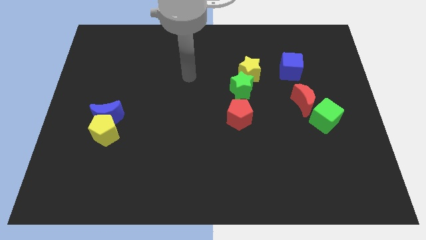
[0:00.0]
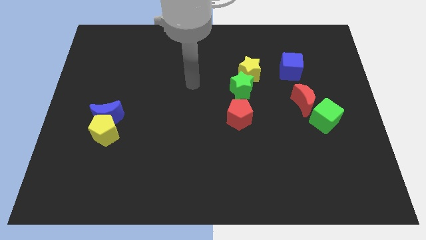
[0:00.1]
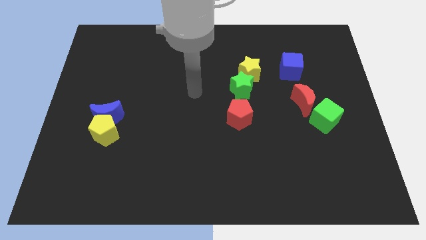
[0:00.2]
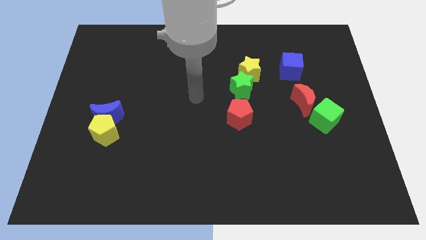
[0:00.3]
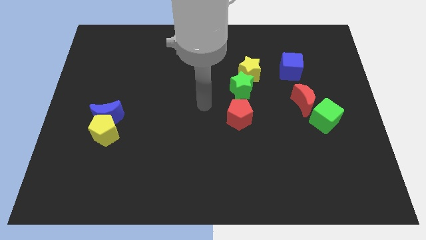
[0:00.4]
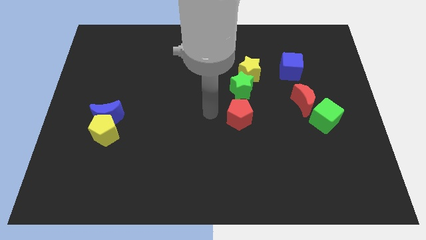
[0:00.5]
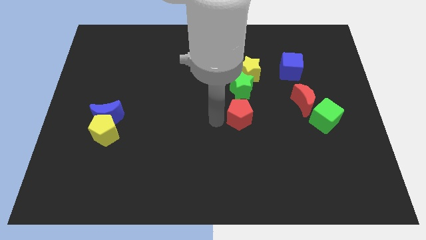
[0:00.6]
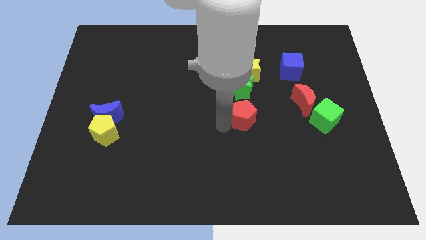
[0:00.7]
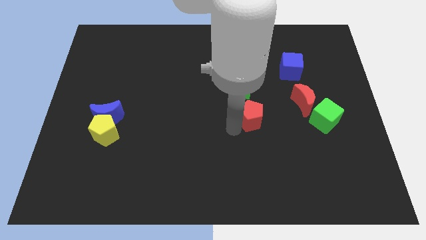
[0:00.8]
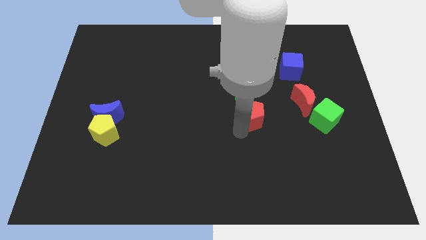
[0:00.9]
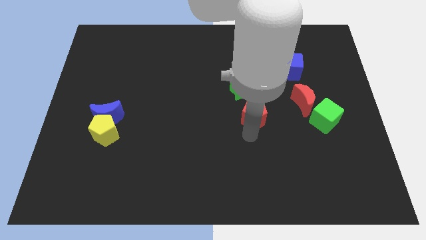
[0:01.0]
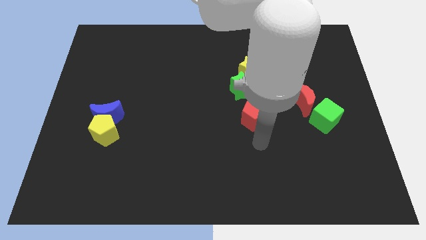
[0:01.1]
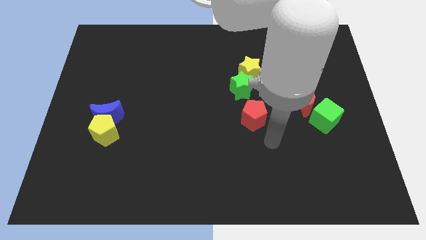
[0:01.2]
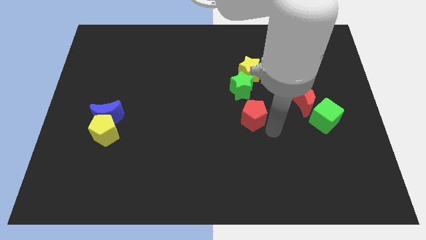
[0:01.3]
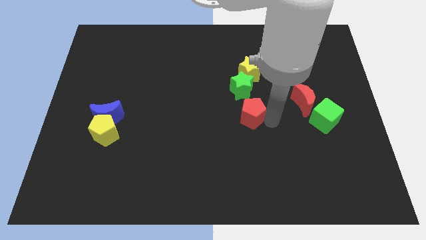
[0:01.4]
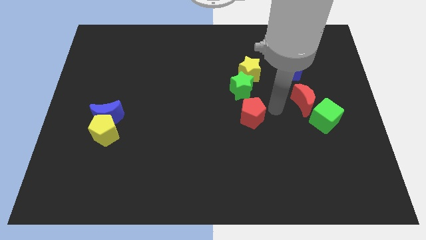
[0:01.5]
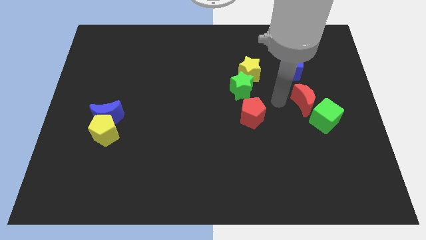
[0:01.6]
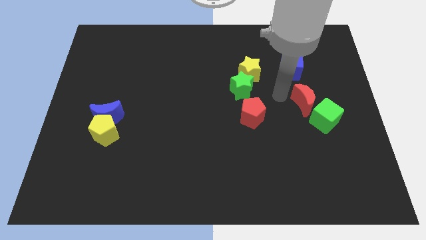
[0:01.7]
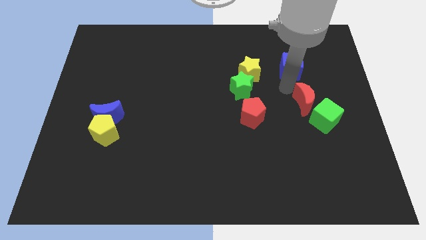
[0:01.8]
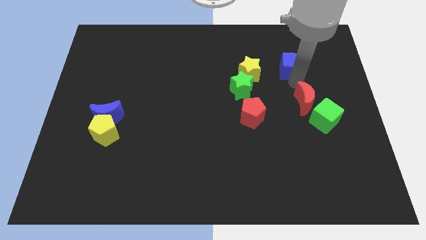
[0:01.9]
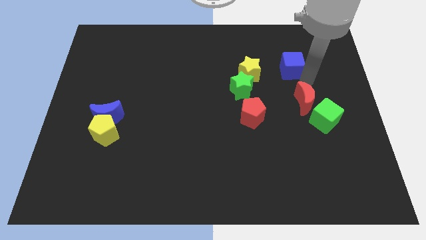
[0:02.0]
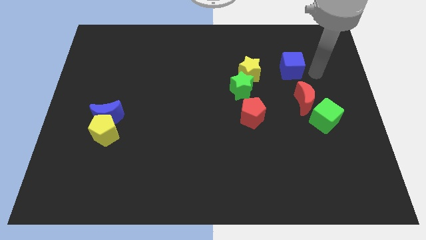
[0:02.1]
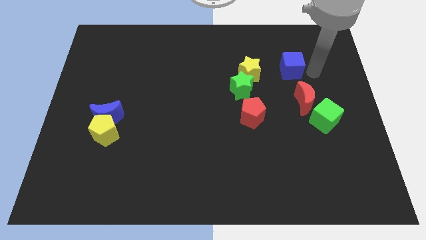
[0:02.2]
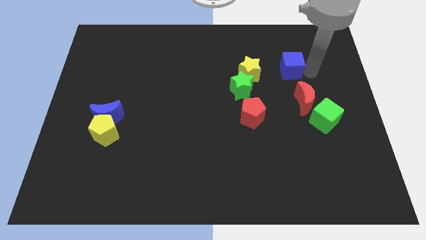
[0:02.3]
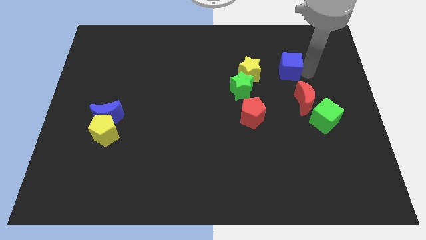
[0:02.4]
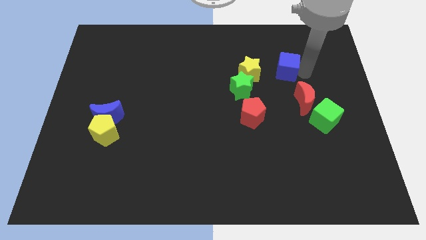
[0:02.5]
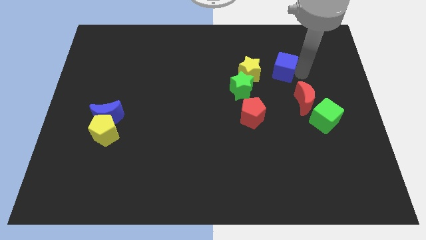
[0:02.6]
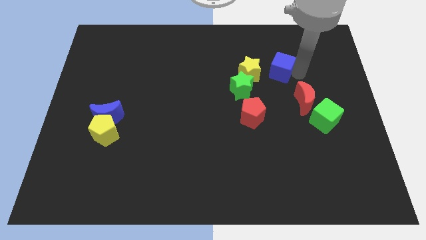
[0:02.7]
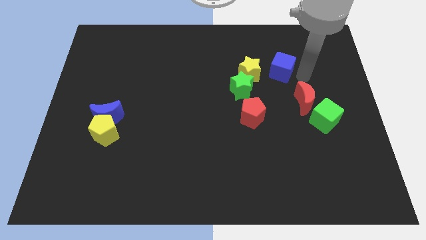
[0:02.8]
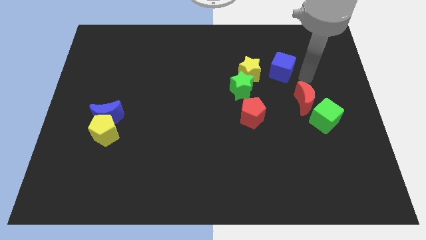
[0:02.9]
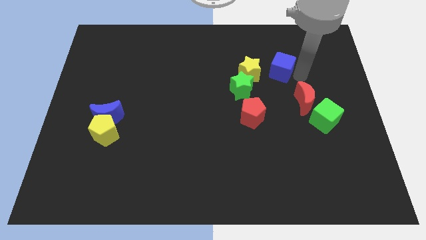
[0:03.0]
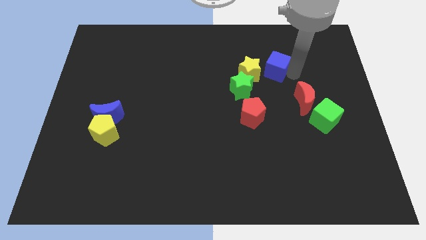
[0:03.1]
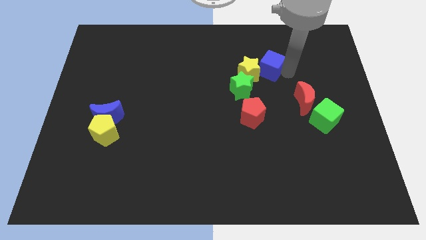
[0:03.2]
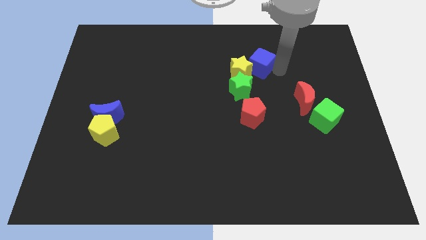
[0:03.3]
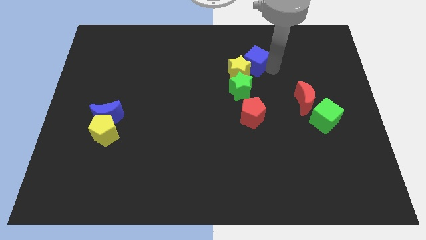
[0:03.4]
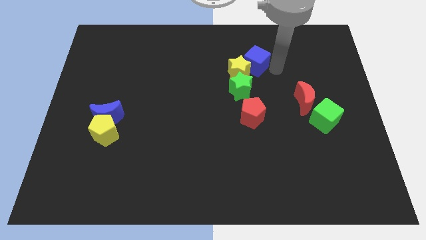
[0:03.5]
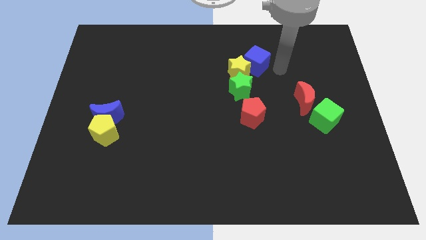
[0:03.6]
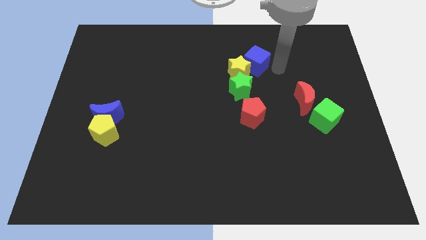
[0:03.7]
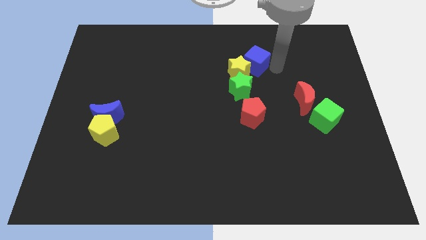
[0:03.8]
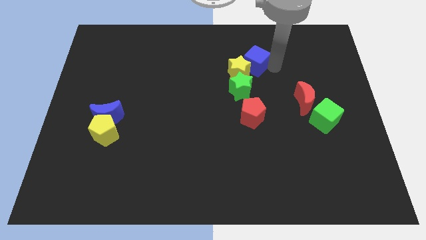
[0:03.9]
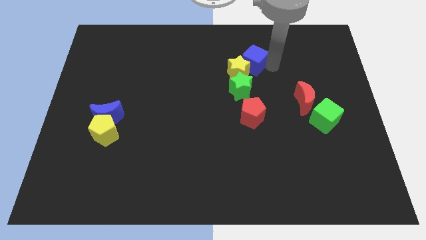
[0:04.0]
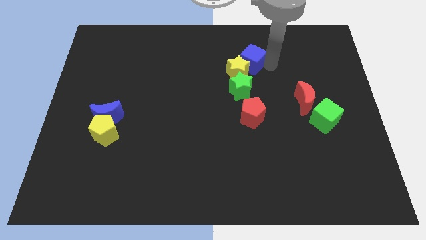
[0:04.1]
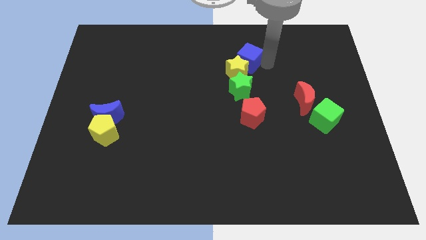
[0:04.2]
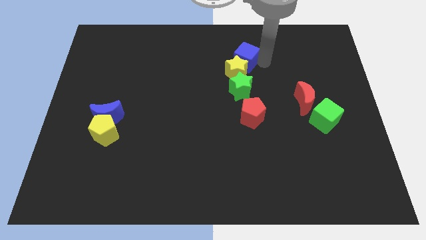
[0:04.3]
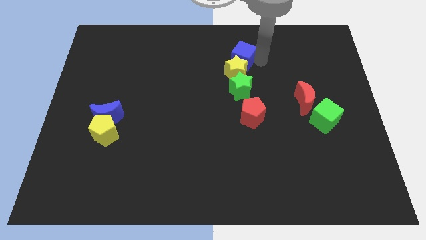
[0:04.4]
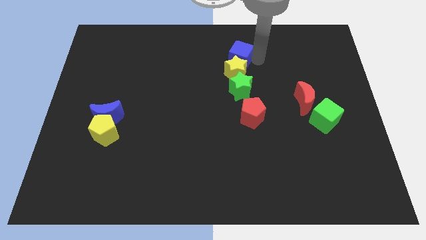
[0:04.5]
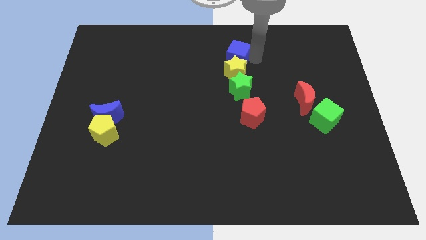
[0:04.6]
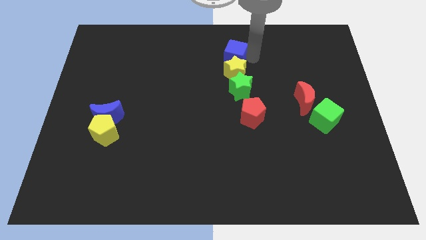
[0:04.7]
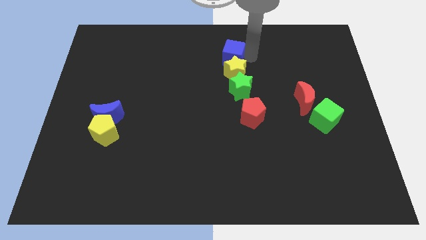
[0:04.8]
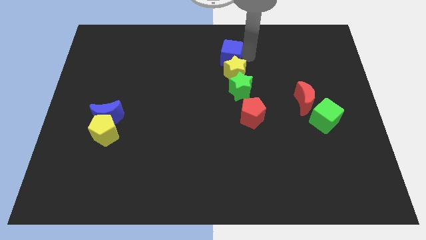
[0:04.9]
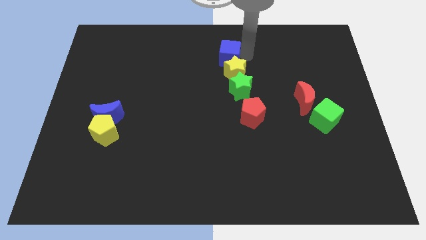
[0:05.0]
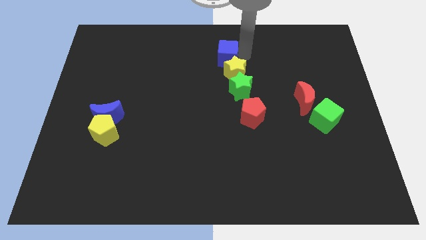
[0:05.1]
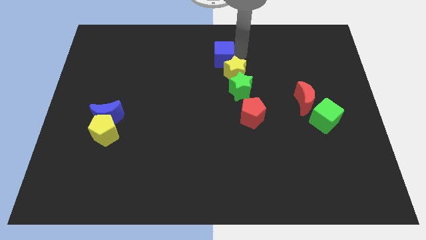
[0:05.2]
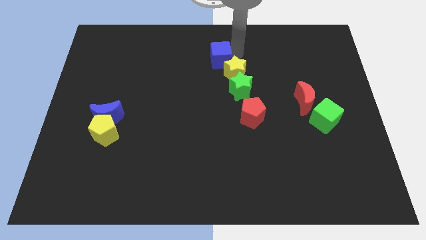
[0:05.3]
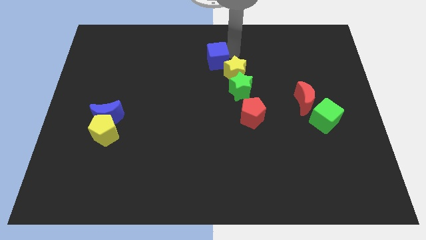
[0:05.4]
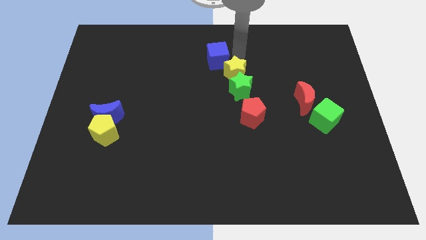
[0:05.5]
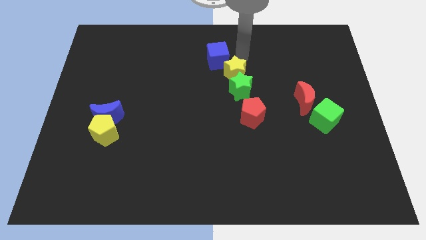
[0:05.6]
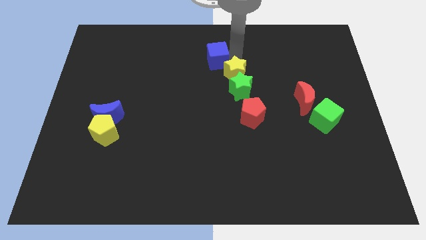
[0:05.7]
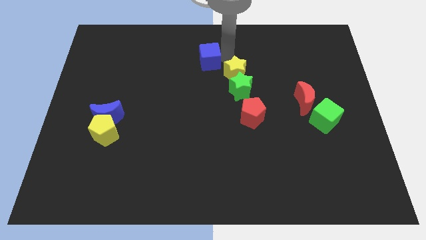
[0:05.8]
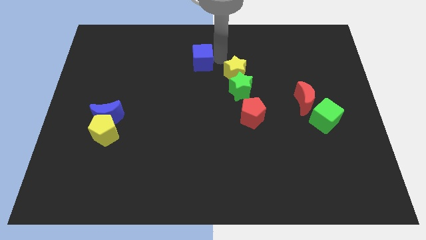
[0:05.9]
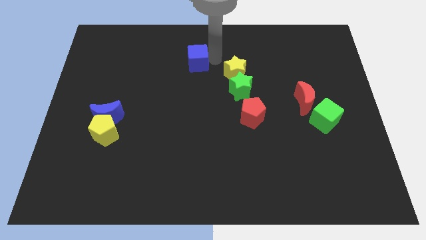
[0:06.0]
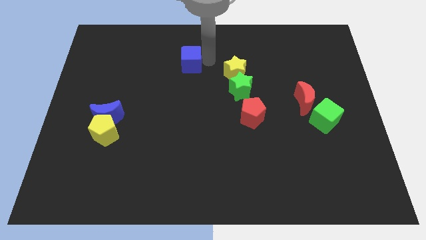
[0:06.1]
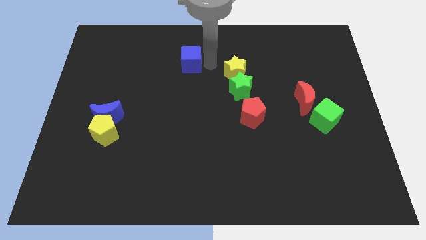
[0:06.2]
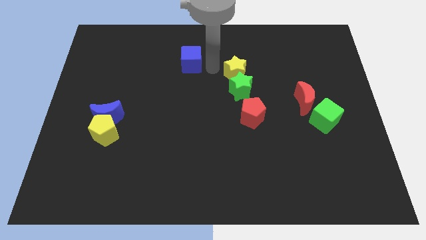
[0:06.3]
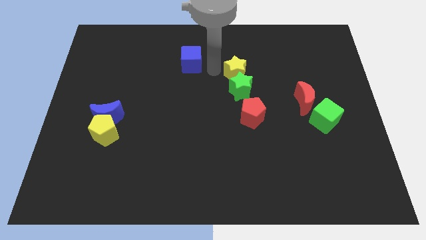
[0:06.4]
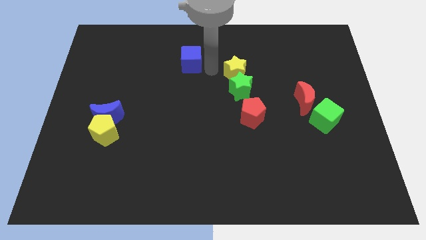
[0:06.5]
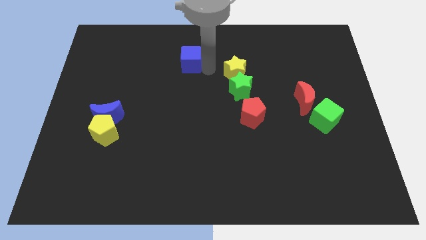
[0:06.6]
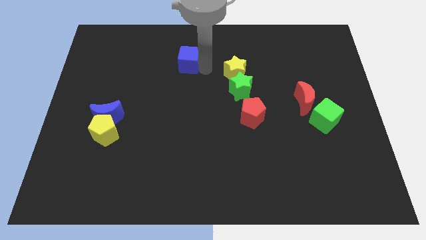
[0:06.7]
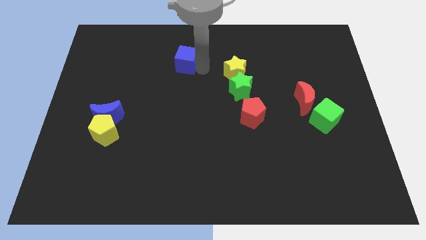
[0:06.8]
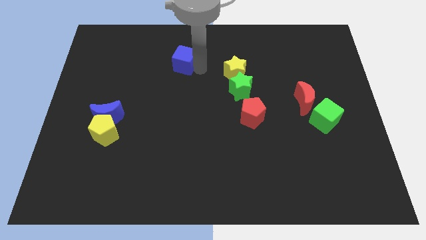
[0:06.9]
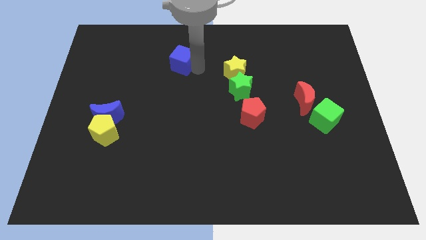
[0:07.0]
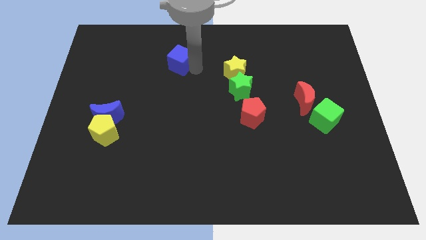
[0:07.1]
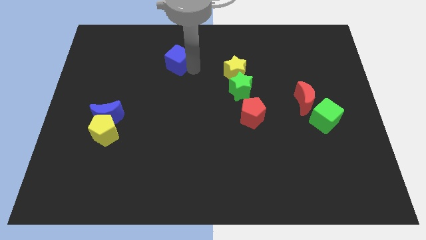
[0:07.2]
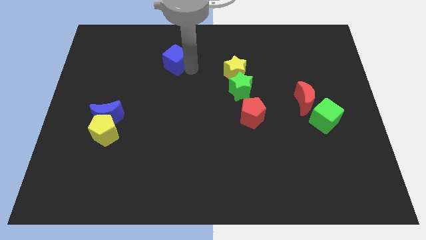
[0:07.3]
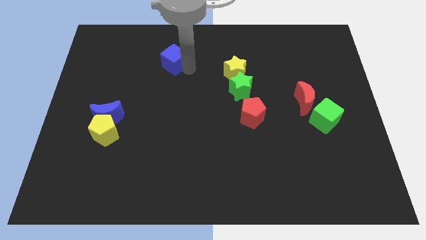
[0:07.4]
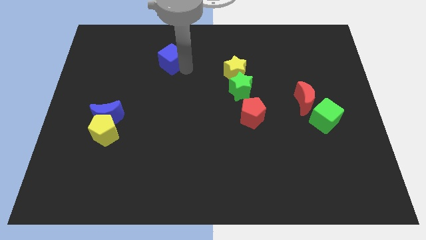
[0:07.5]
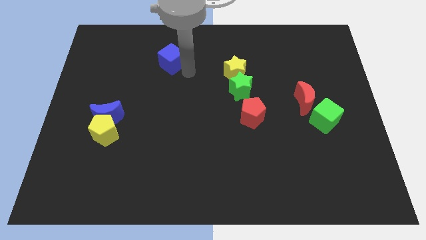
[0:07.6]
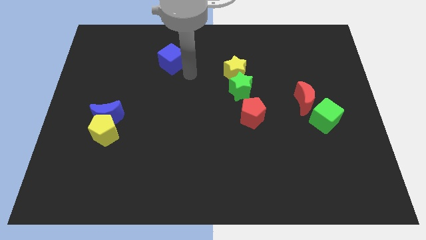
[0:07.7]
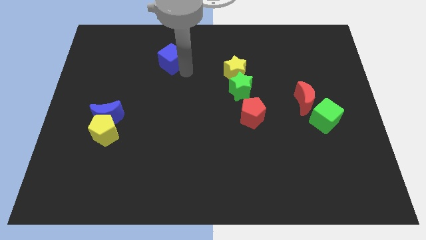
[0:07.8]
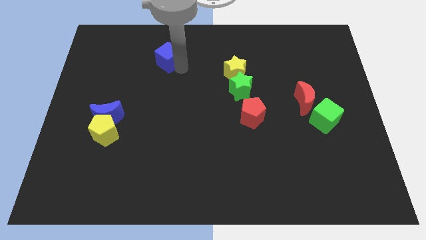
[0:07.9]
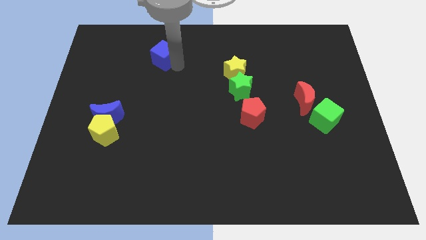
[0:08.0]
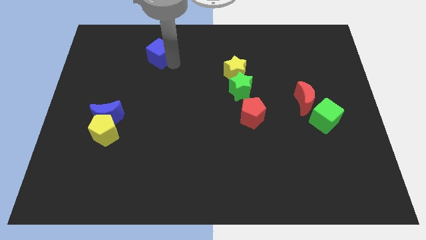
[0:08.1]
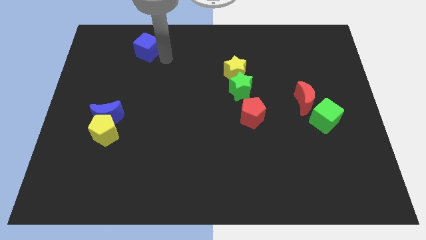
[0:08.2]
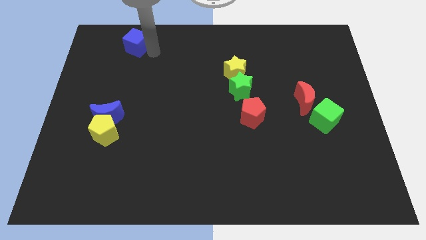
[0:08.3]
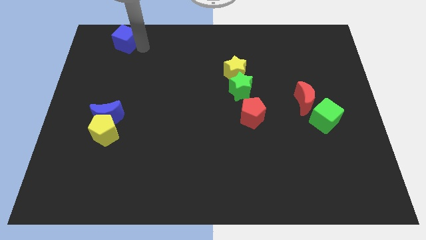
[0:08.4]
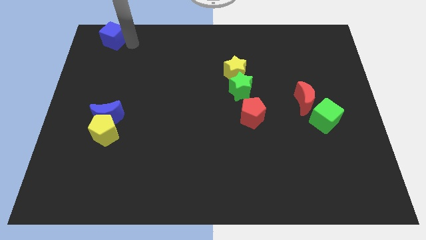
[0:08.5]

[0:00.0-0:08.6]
slide the blue cube to the top left corner
